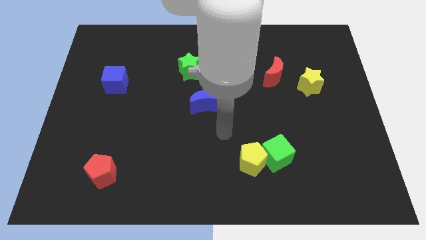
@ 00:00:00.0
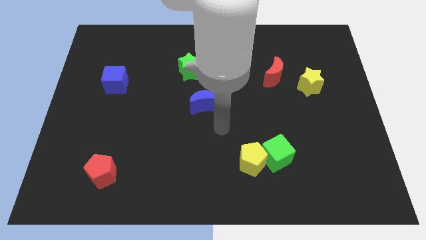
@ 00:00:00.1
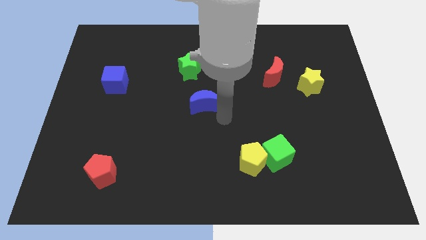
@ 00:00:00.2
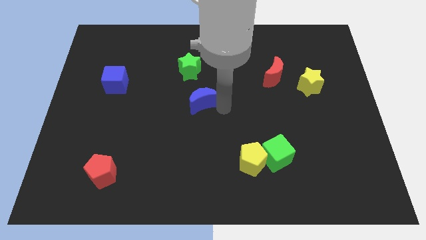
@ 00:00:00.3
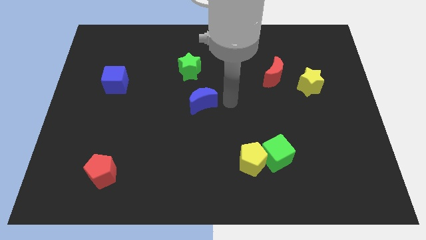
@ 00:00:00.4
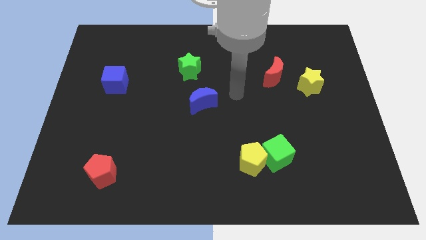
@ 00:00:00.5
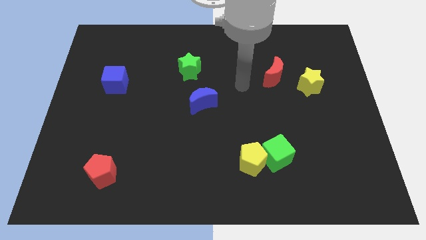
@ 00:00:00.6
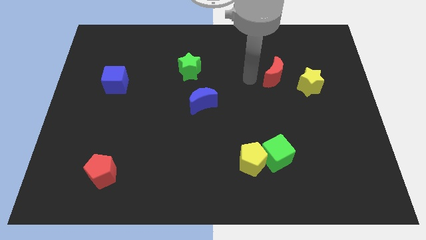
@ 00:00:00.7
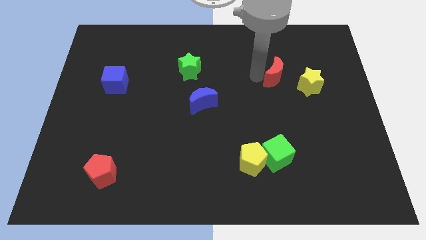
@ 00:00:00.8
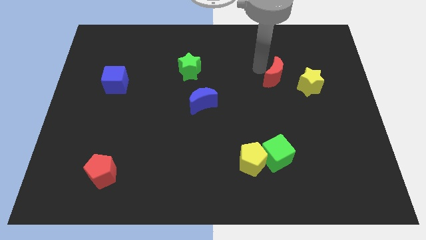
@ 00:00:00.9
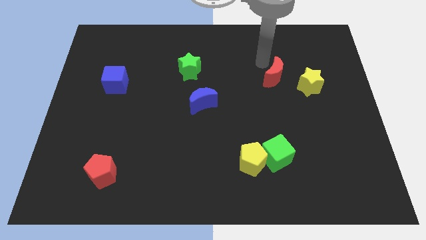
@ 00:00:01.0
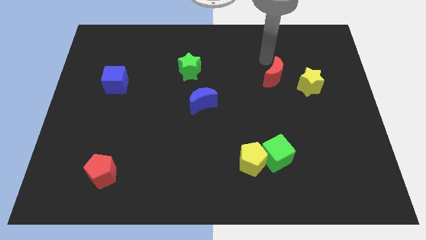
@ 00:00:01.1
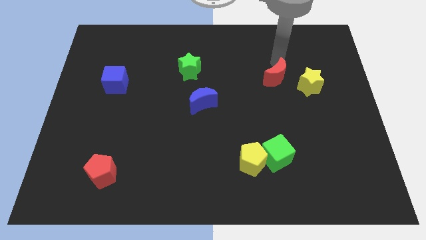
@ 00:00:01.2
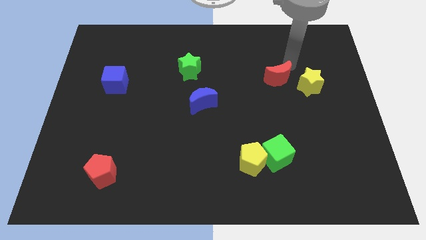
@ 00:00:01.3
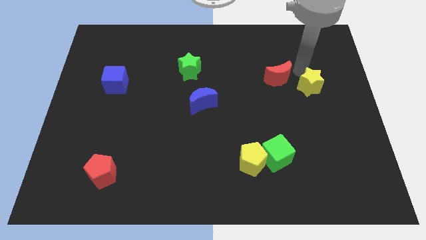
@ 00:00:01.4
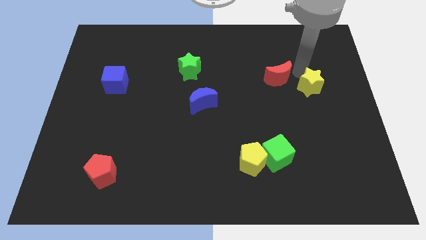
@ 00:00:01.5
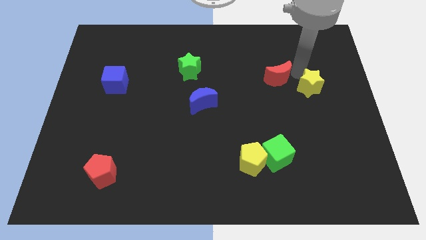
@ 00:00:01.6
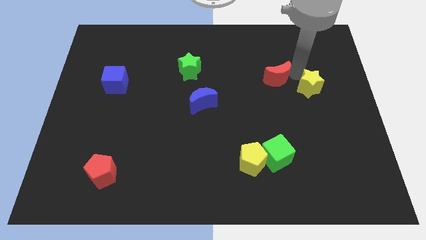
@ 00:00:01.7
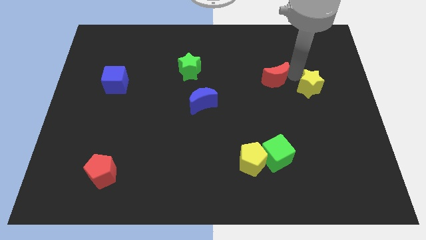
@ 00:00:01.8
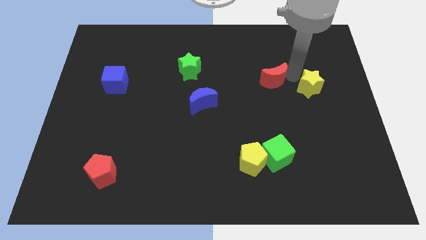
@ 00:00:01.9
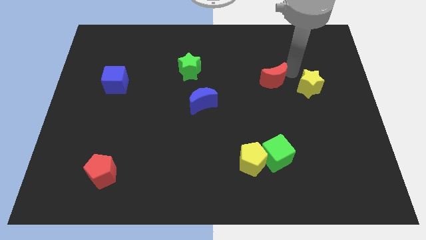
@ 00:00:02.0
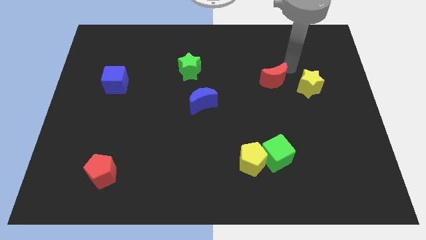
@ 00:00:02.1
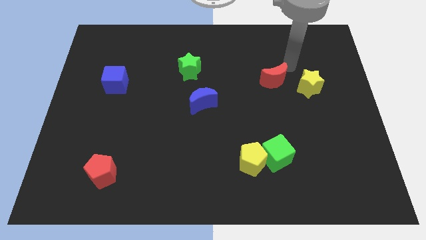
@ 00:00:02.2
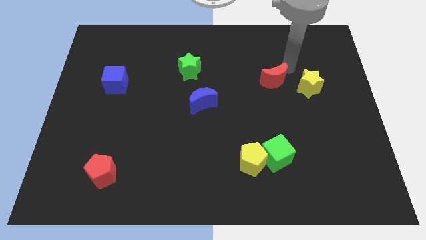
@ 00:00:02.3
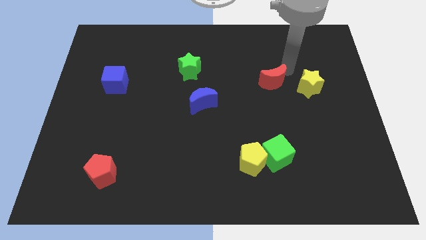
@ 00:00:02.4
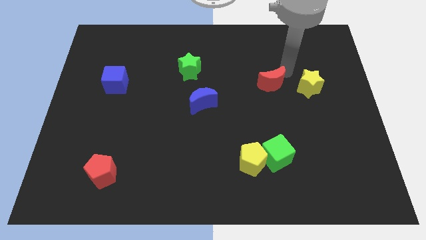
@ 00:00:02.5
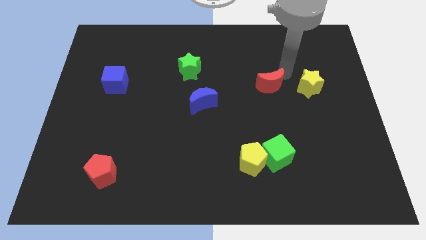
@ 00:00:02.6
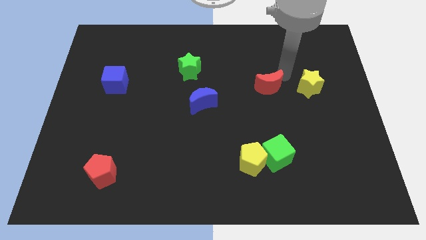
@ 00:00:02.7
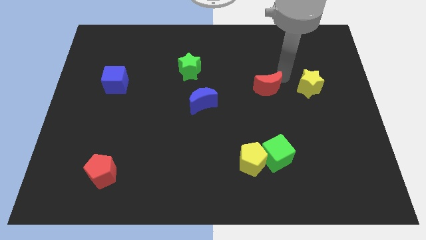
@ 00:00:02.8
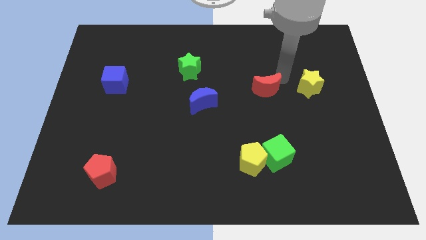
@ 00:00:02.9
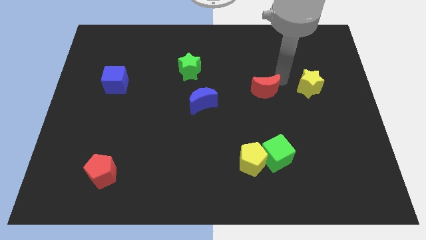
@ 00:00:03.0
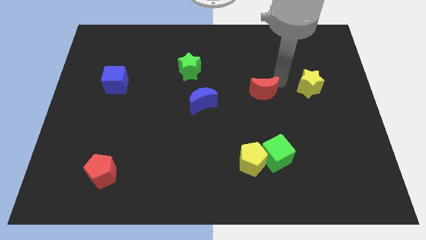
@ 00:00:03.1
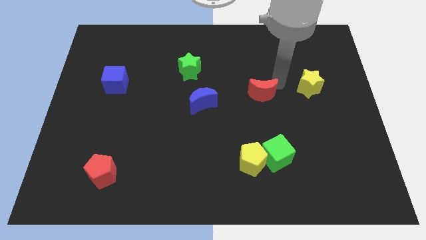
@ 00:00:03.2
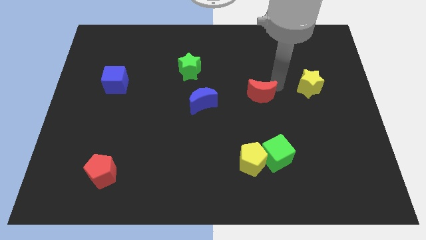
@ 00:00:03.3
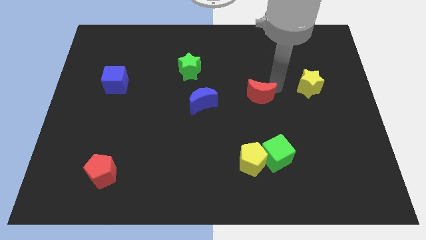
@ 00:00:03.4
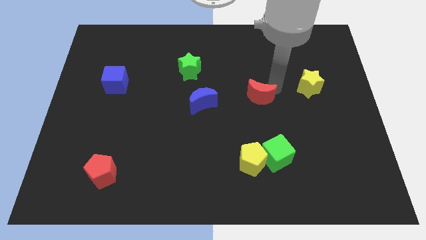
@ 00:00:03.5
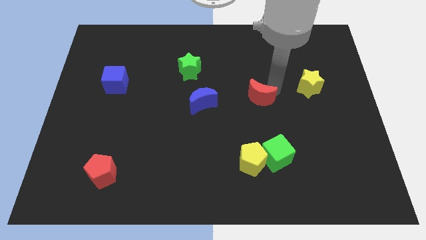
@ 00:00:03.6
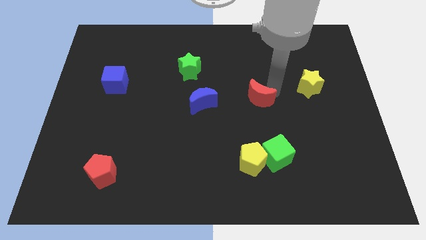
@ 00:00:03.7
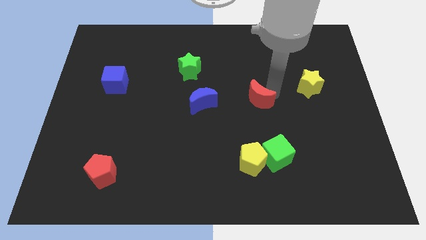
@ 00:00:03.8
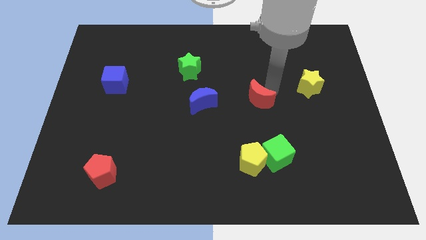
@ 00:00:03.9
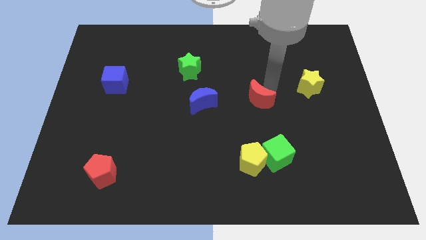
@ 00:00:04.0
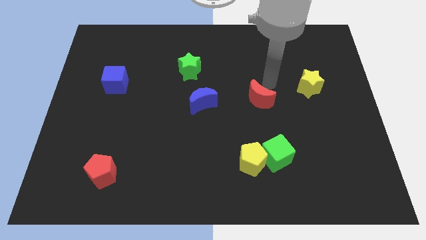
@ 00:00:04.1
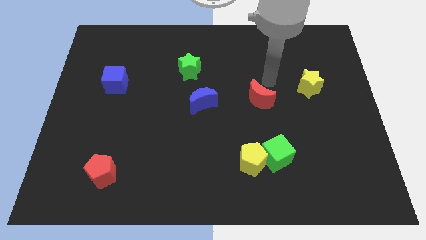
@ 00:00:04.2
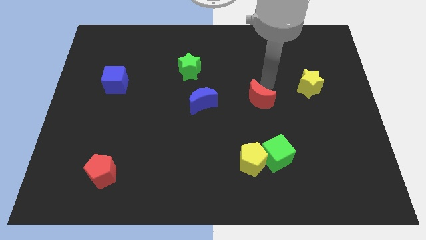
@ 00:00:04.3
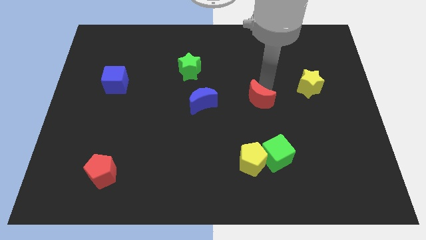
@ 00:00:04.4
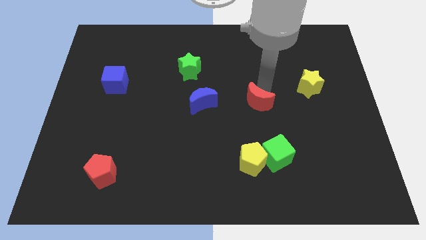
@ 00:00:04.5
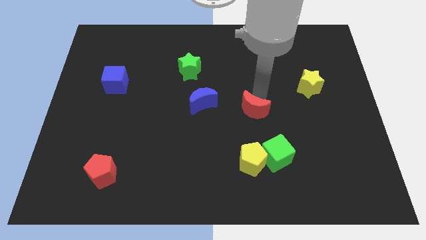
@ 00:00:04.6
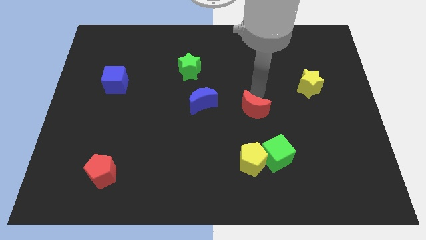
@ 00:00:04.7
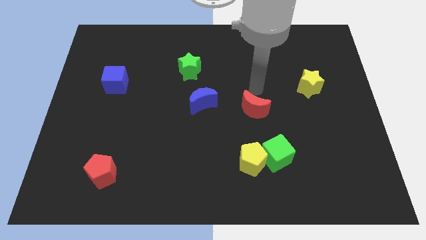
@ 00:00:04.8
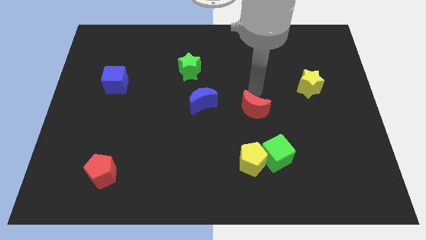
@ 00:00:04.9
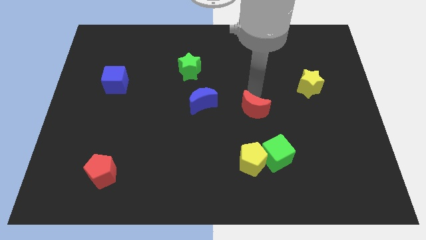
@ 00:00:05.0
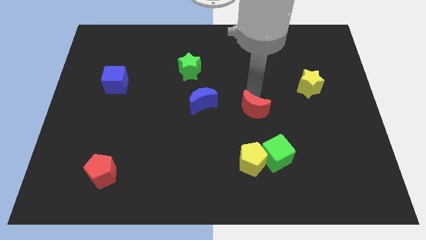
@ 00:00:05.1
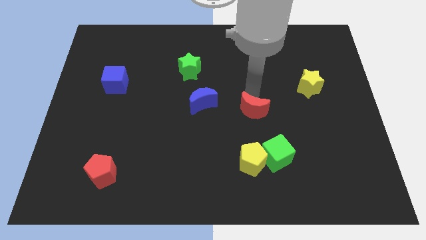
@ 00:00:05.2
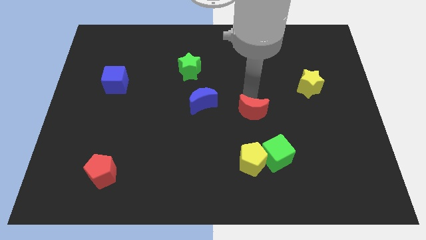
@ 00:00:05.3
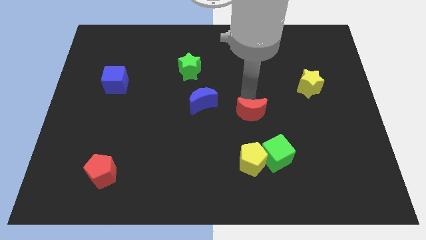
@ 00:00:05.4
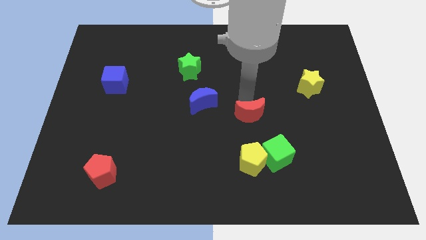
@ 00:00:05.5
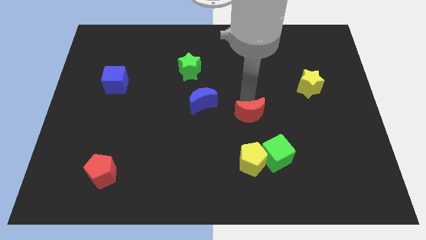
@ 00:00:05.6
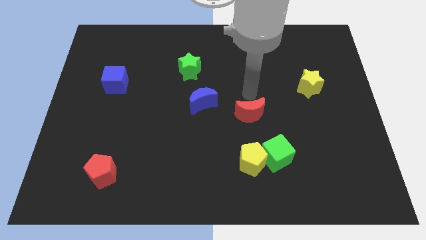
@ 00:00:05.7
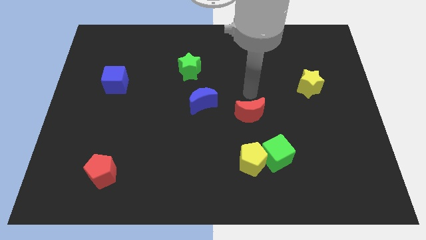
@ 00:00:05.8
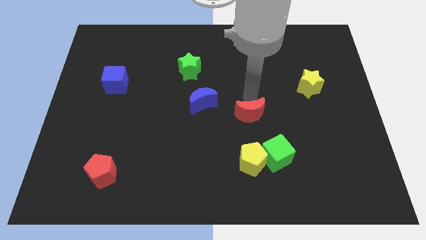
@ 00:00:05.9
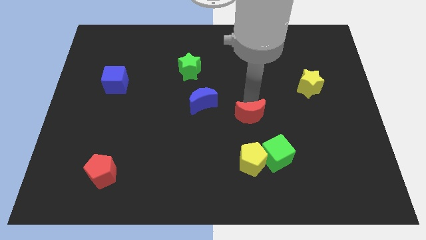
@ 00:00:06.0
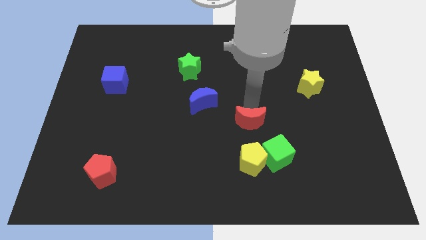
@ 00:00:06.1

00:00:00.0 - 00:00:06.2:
push the red moon to the top left of the green cube

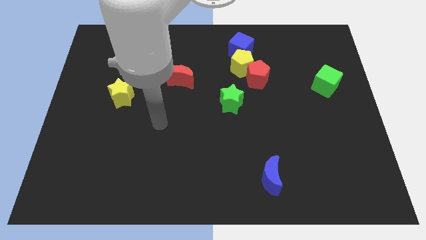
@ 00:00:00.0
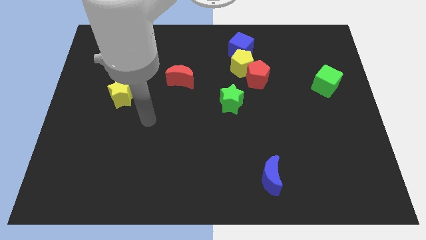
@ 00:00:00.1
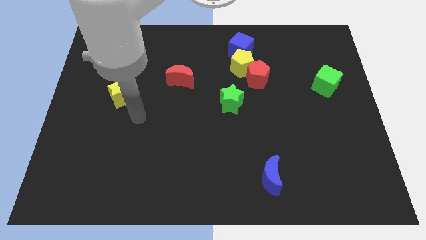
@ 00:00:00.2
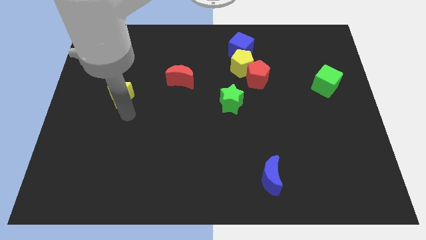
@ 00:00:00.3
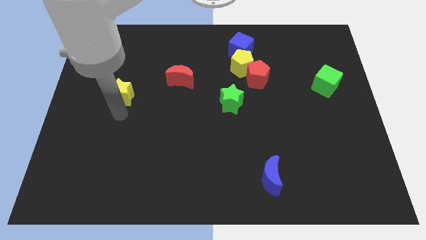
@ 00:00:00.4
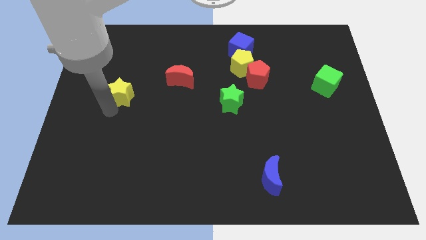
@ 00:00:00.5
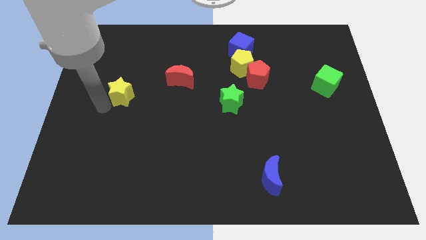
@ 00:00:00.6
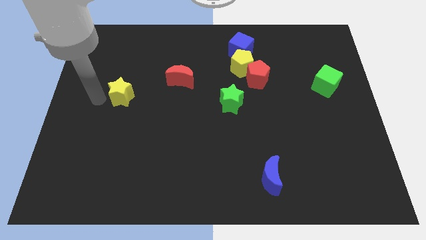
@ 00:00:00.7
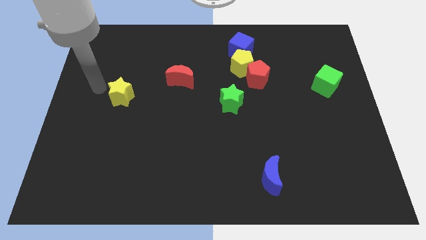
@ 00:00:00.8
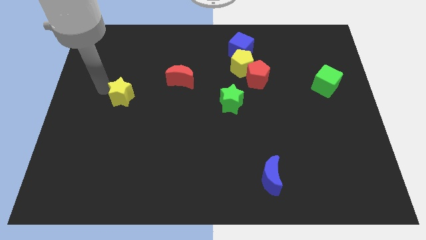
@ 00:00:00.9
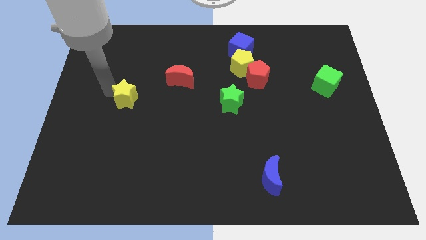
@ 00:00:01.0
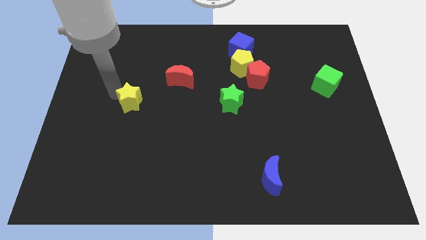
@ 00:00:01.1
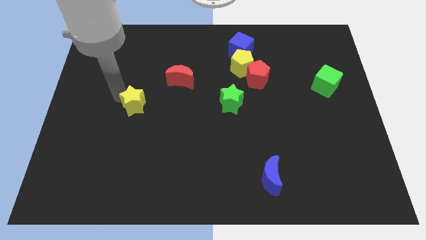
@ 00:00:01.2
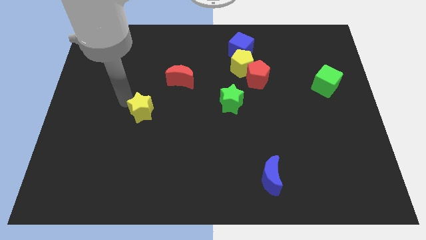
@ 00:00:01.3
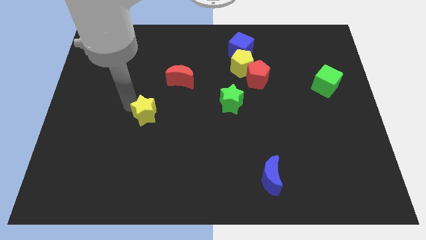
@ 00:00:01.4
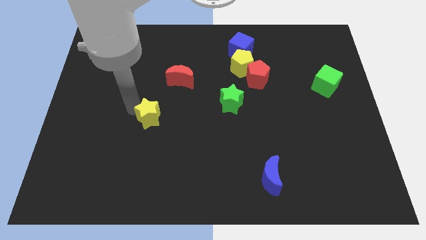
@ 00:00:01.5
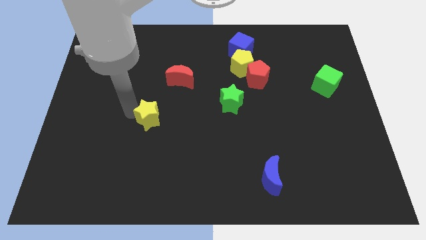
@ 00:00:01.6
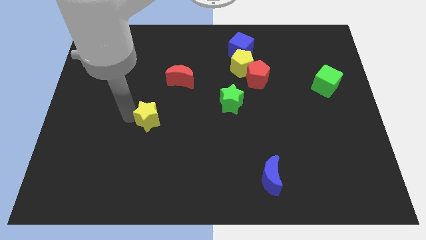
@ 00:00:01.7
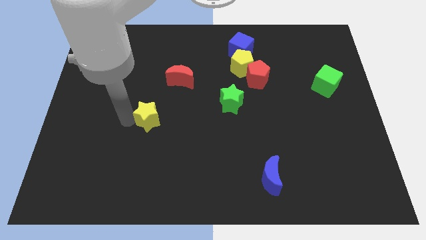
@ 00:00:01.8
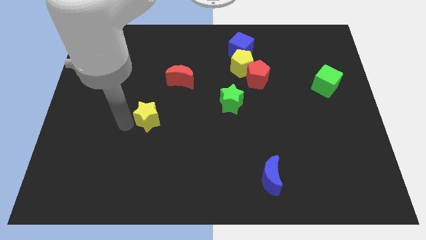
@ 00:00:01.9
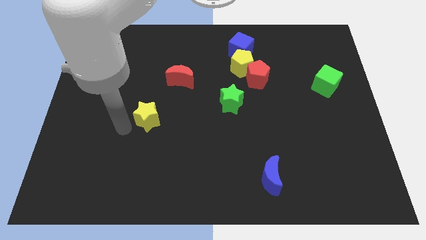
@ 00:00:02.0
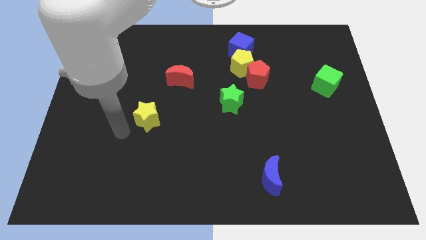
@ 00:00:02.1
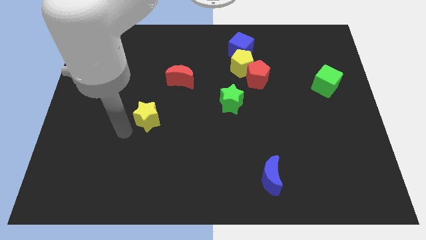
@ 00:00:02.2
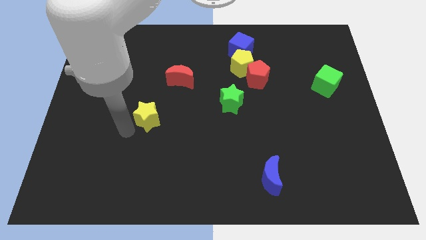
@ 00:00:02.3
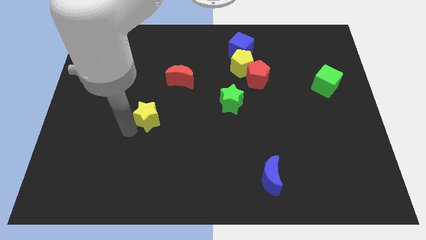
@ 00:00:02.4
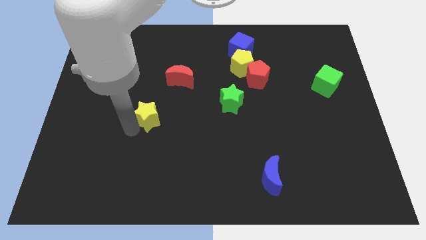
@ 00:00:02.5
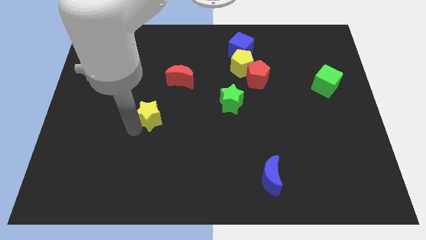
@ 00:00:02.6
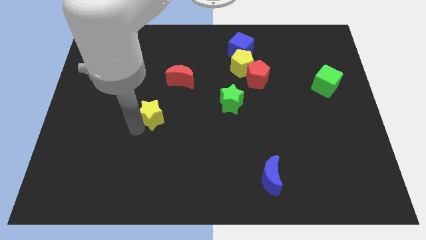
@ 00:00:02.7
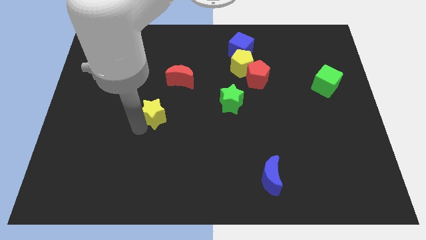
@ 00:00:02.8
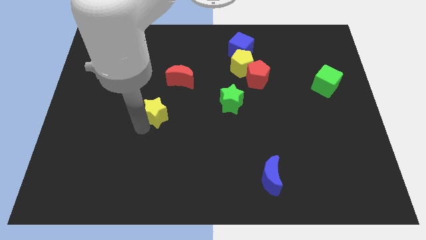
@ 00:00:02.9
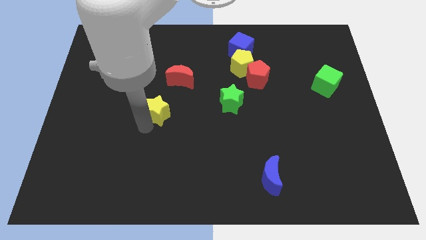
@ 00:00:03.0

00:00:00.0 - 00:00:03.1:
move the yellow star to the bottom side of the red moon
